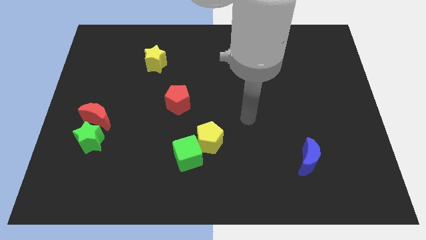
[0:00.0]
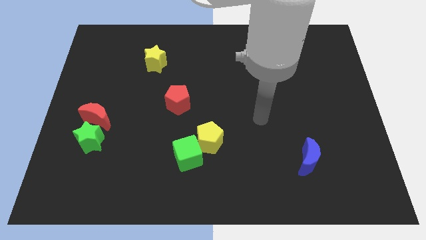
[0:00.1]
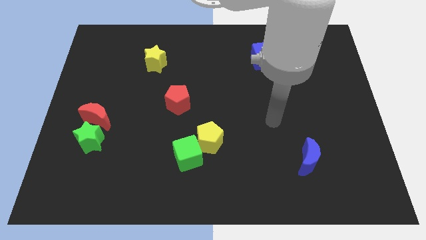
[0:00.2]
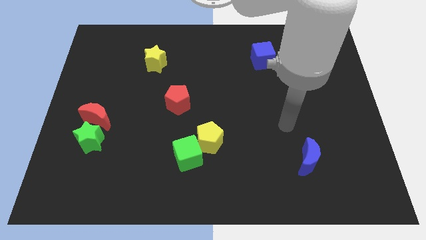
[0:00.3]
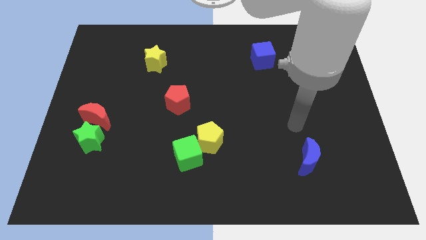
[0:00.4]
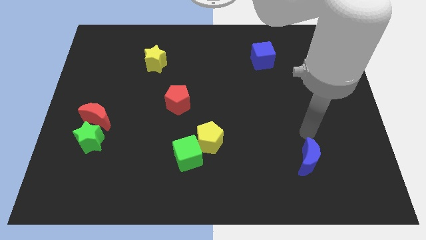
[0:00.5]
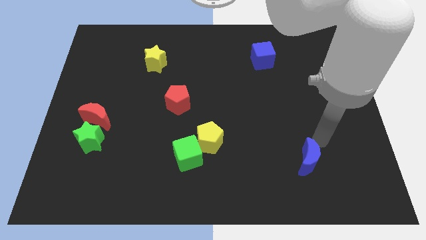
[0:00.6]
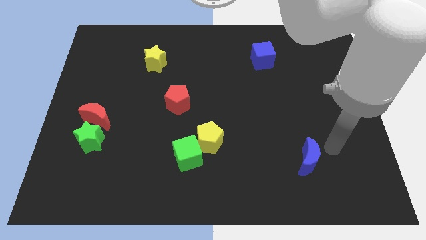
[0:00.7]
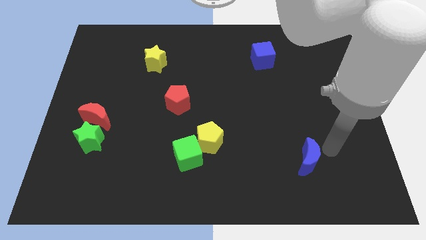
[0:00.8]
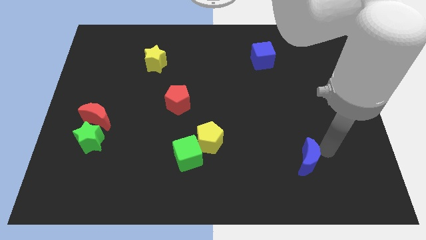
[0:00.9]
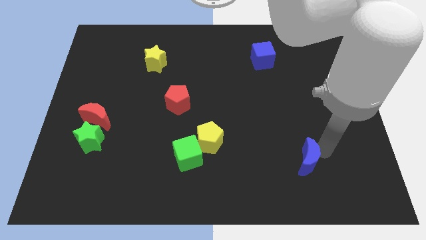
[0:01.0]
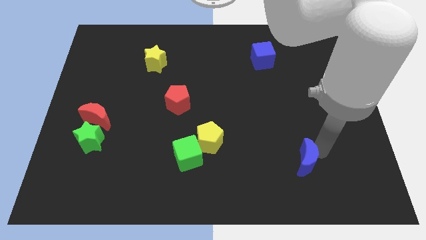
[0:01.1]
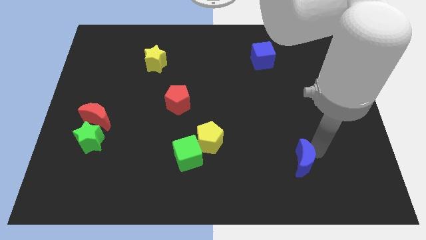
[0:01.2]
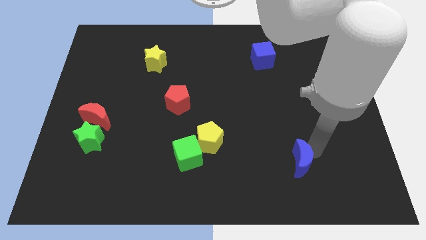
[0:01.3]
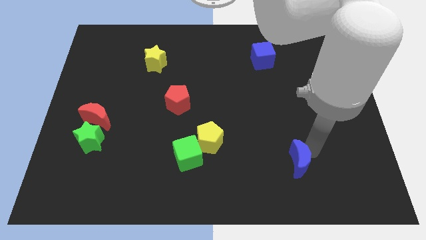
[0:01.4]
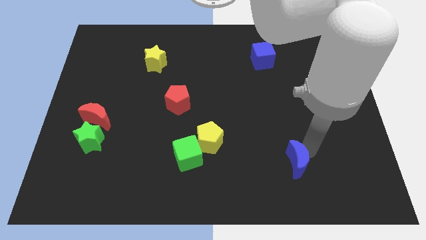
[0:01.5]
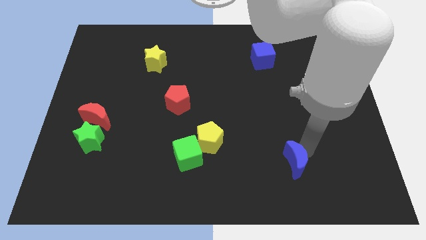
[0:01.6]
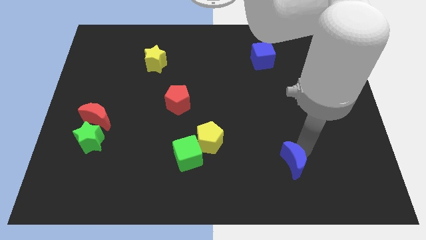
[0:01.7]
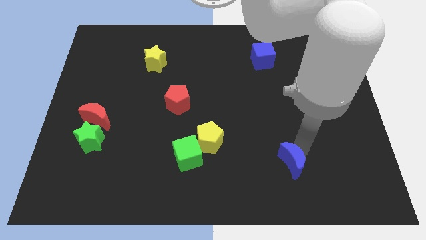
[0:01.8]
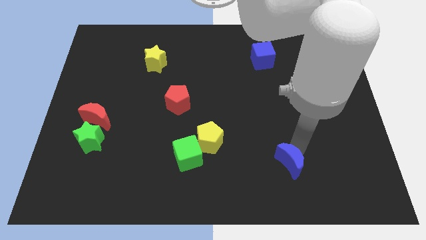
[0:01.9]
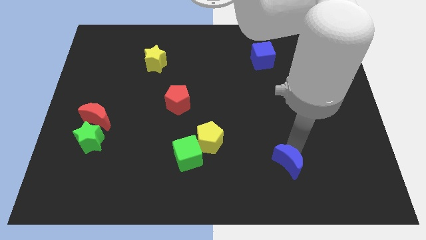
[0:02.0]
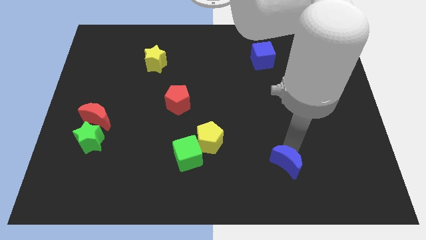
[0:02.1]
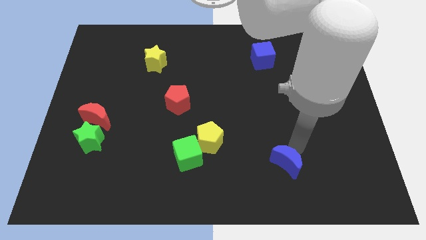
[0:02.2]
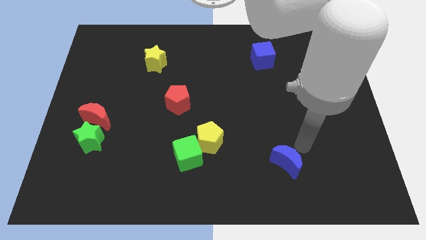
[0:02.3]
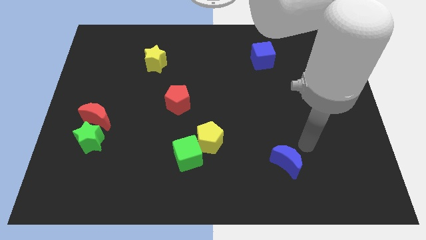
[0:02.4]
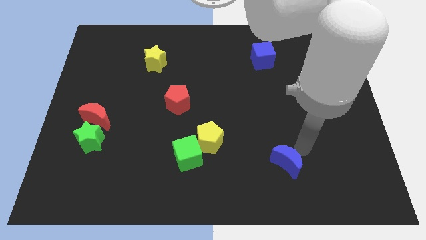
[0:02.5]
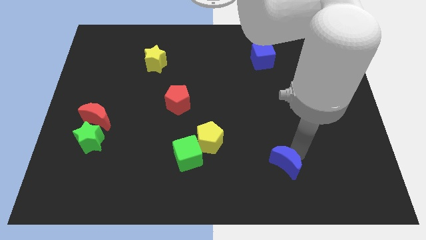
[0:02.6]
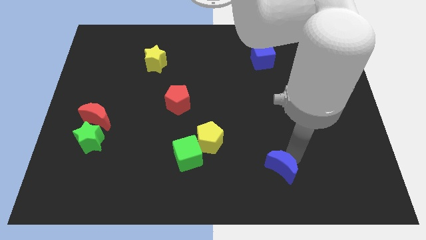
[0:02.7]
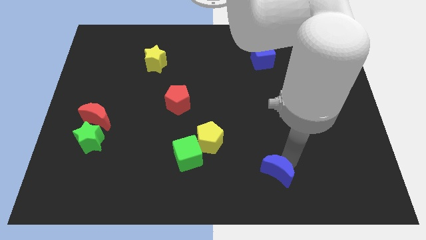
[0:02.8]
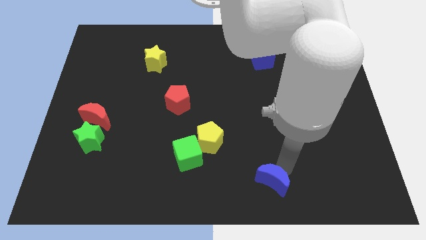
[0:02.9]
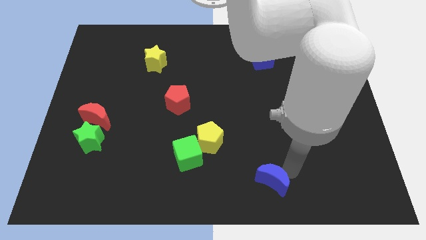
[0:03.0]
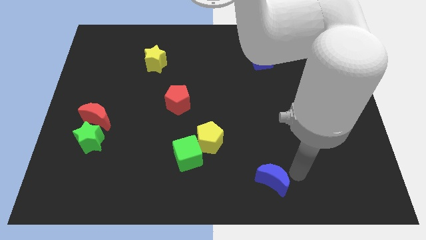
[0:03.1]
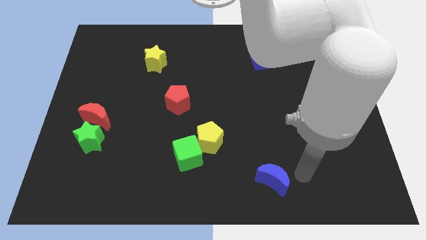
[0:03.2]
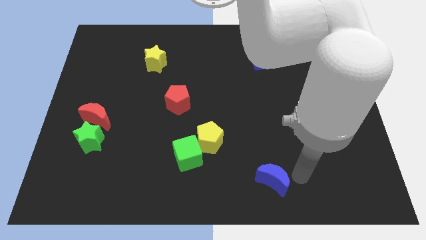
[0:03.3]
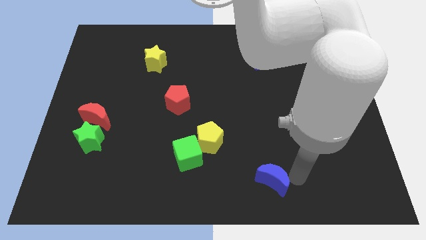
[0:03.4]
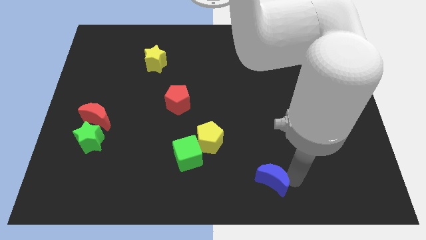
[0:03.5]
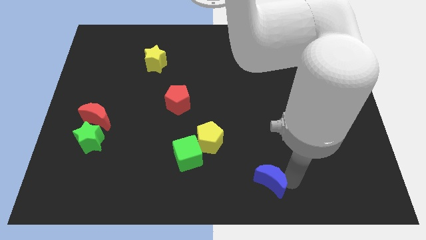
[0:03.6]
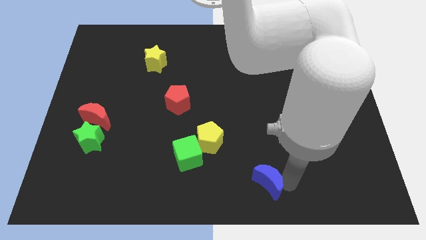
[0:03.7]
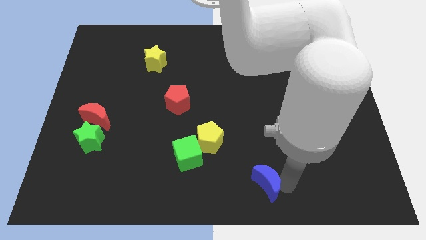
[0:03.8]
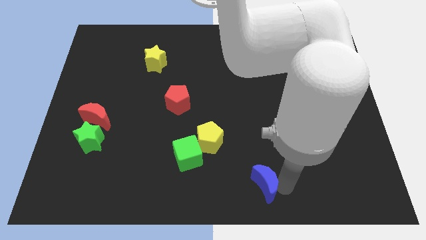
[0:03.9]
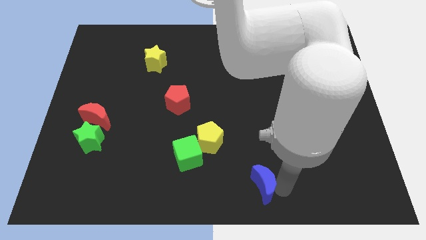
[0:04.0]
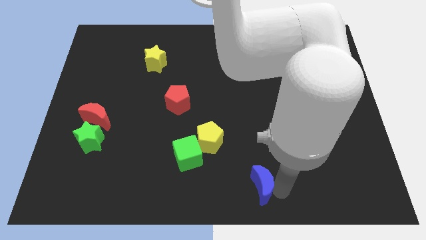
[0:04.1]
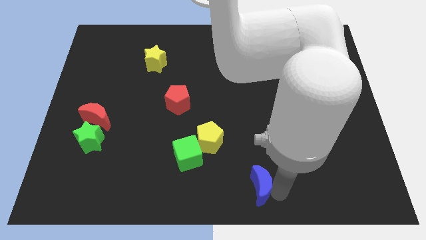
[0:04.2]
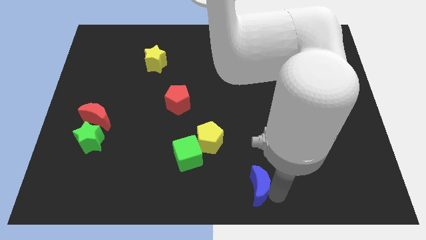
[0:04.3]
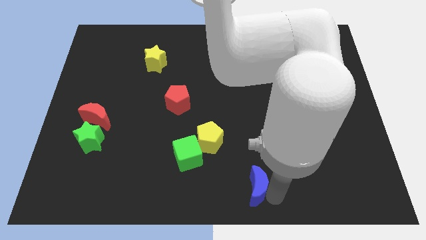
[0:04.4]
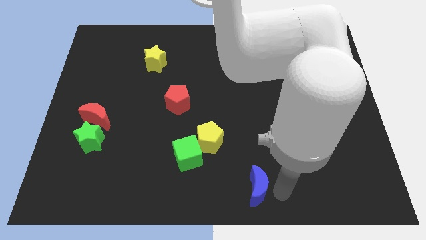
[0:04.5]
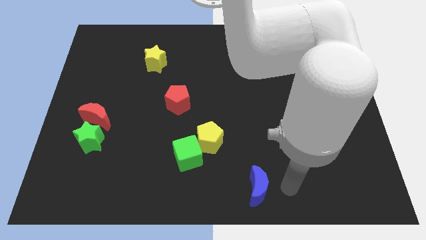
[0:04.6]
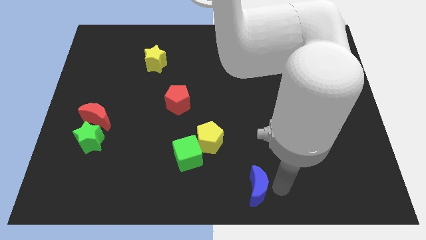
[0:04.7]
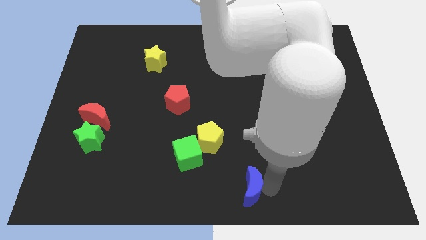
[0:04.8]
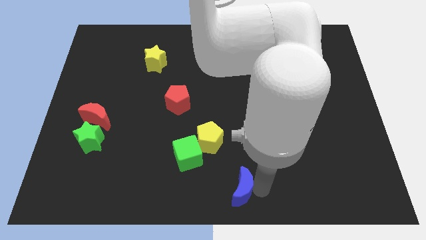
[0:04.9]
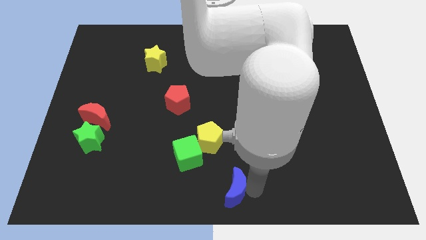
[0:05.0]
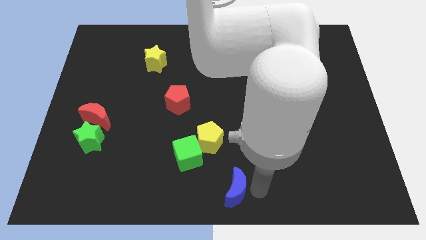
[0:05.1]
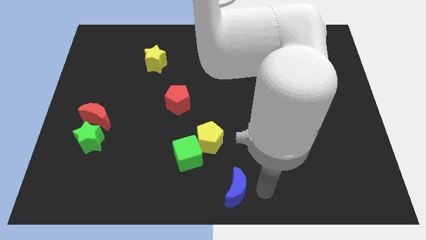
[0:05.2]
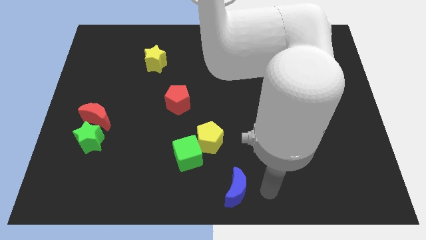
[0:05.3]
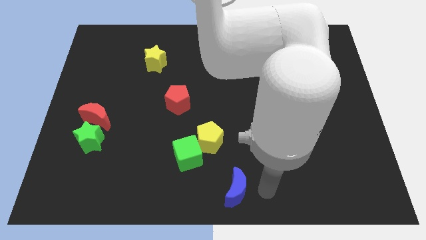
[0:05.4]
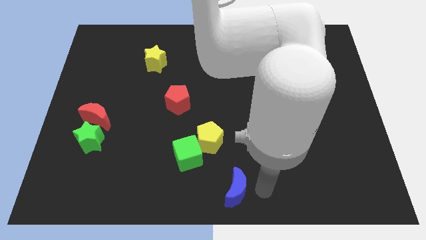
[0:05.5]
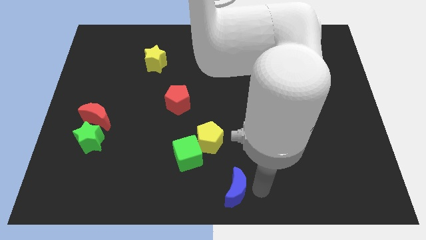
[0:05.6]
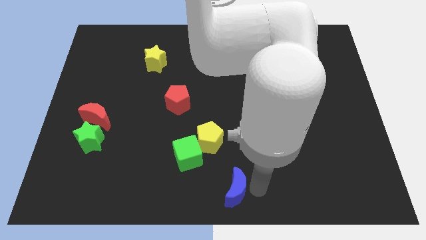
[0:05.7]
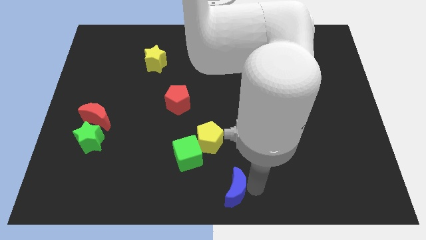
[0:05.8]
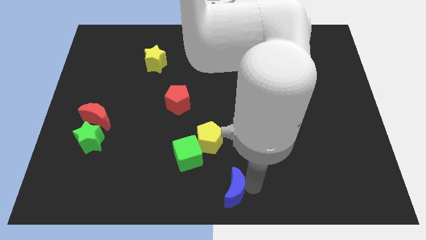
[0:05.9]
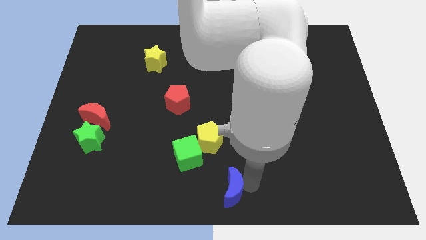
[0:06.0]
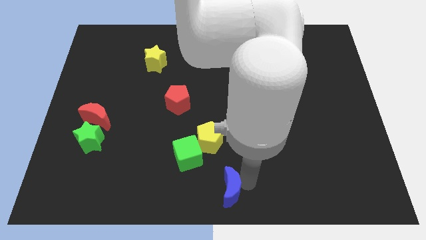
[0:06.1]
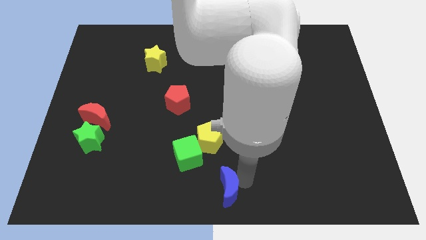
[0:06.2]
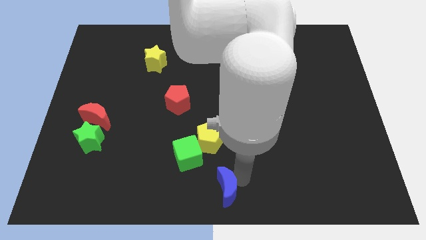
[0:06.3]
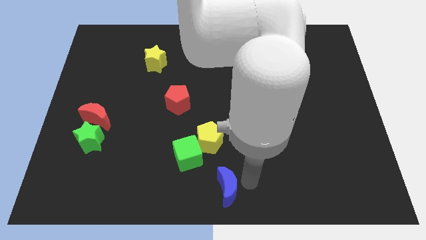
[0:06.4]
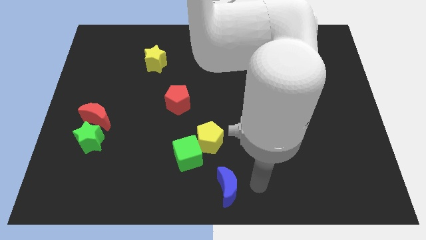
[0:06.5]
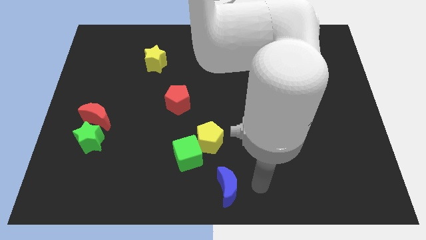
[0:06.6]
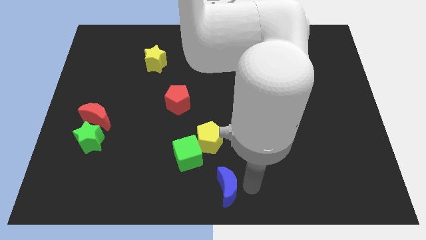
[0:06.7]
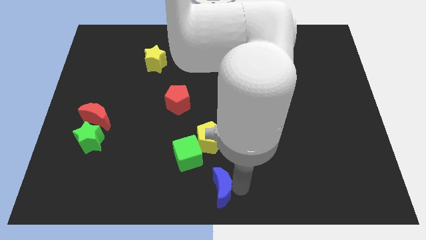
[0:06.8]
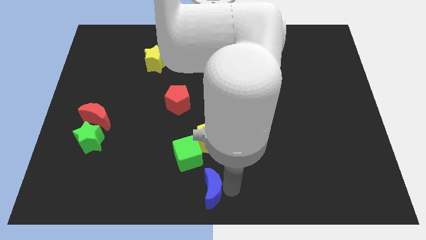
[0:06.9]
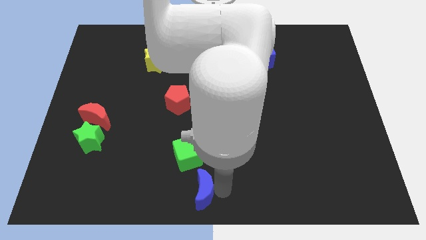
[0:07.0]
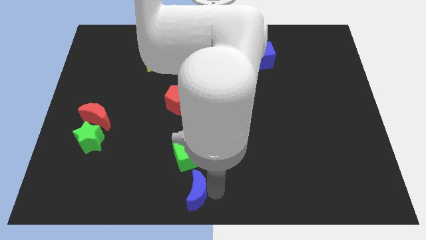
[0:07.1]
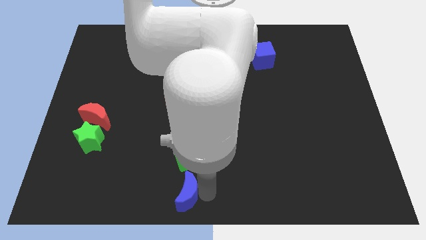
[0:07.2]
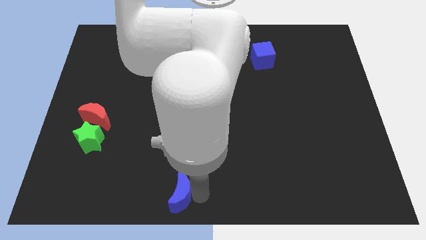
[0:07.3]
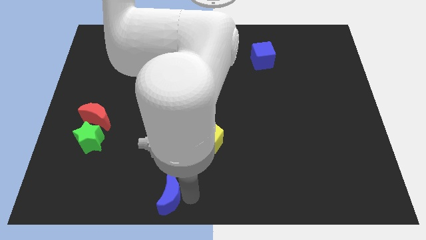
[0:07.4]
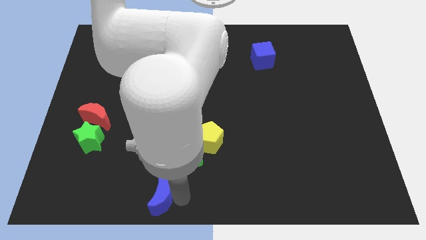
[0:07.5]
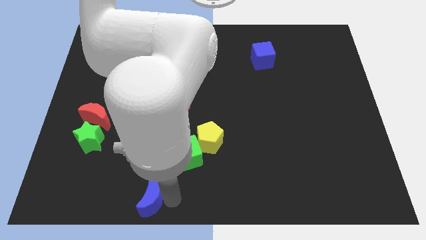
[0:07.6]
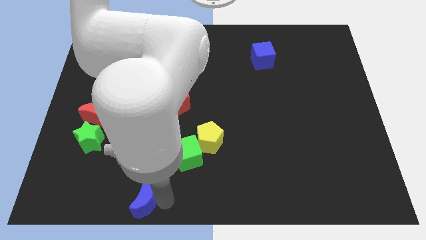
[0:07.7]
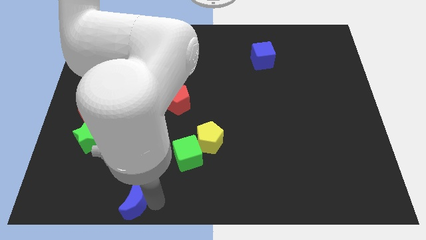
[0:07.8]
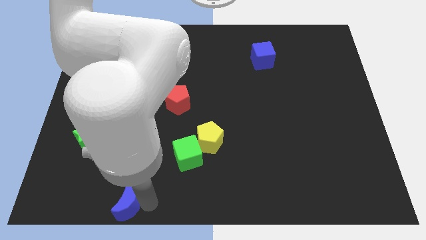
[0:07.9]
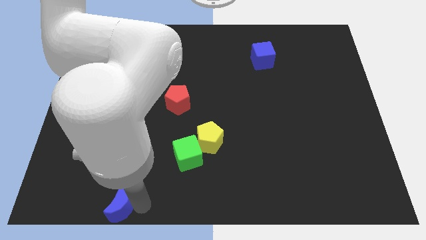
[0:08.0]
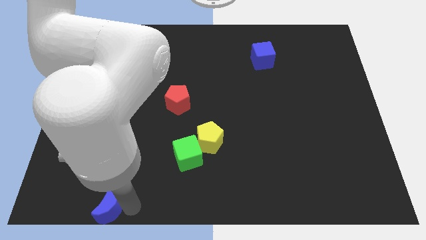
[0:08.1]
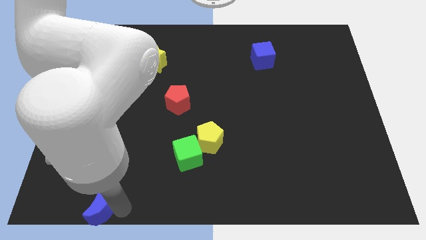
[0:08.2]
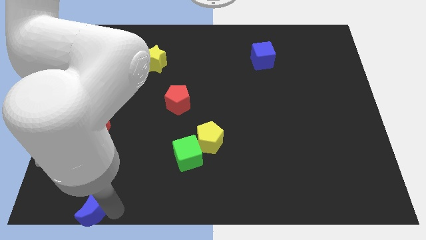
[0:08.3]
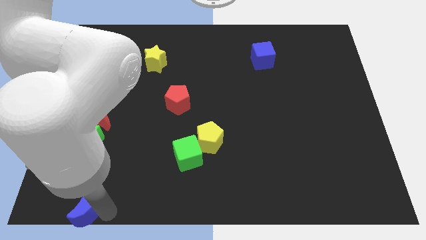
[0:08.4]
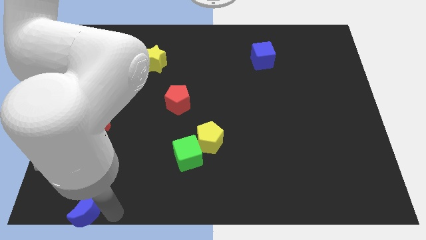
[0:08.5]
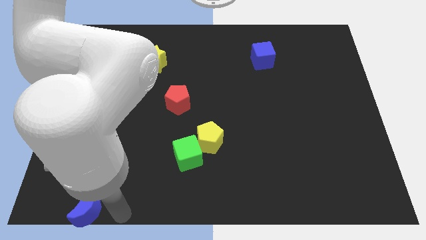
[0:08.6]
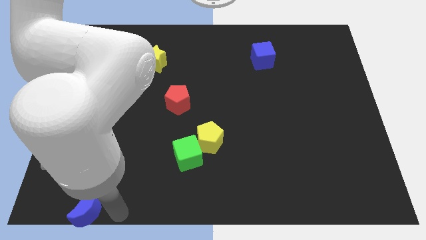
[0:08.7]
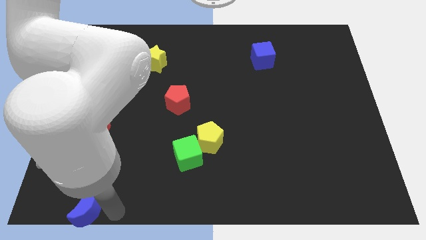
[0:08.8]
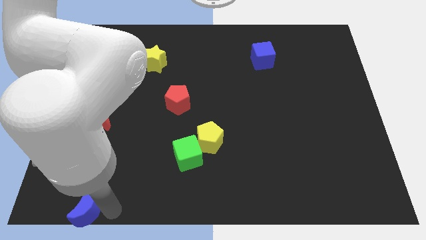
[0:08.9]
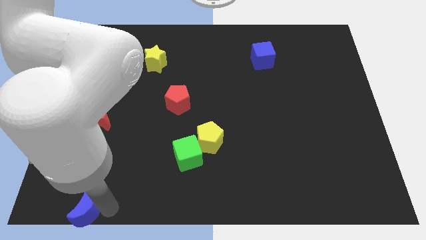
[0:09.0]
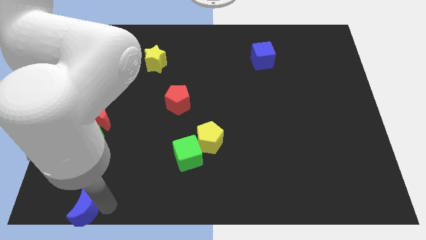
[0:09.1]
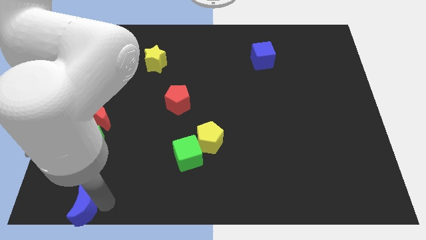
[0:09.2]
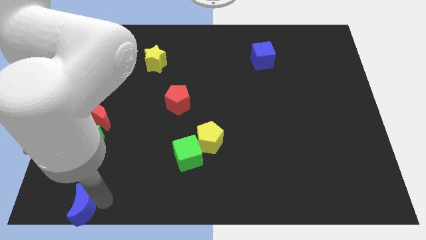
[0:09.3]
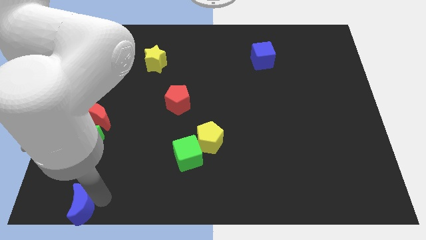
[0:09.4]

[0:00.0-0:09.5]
put the blue moon to the bottom left of the board
